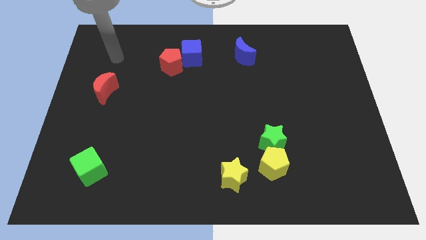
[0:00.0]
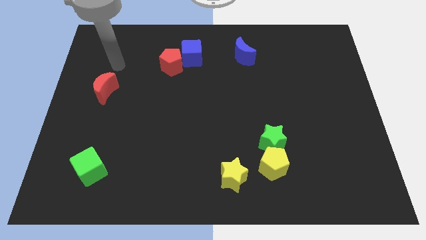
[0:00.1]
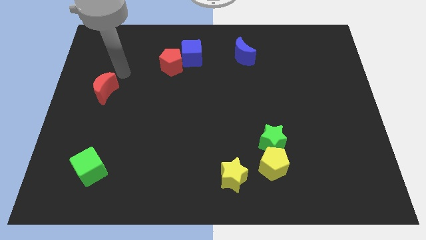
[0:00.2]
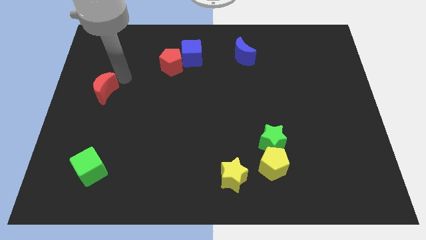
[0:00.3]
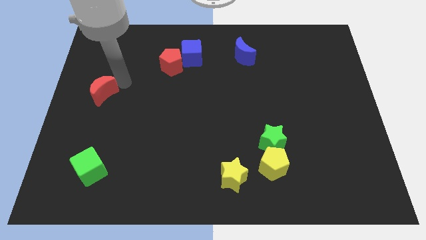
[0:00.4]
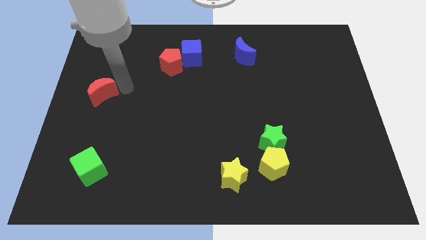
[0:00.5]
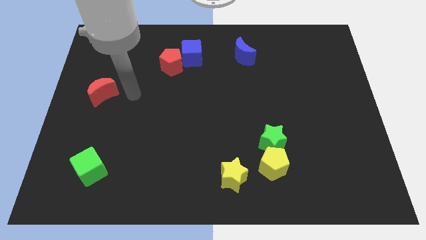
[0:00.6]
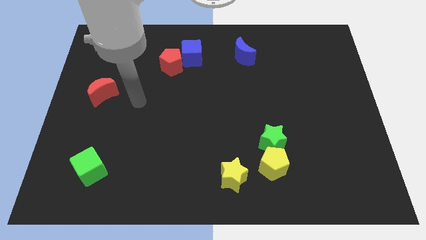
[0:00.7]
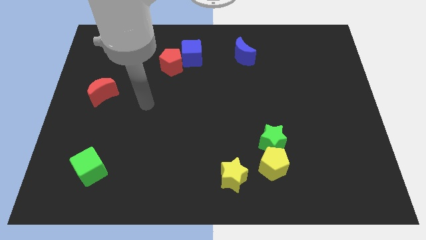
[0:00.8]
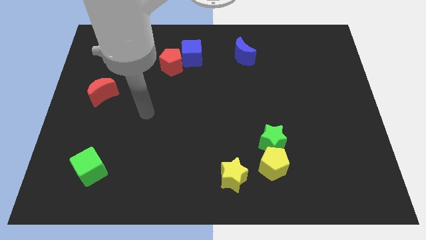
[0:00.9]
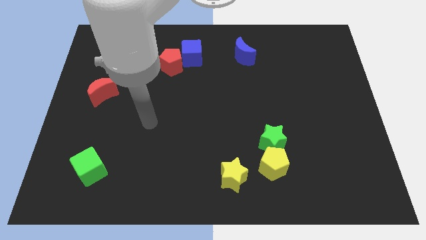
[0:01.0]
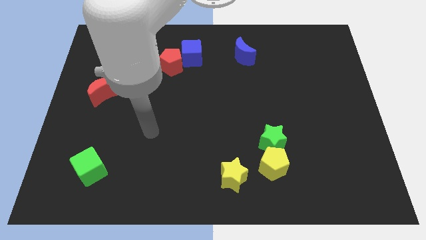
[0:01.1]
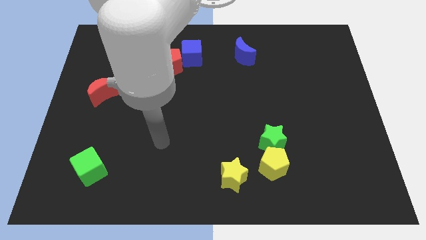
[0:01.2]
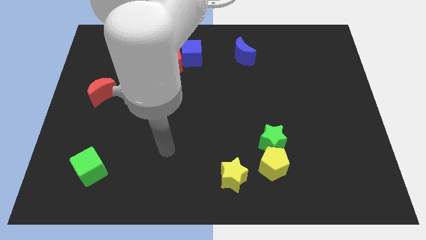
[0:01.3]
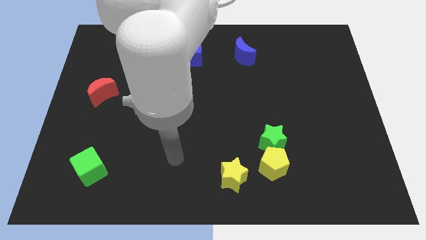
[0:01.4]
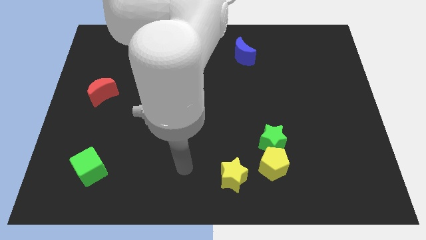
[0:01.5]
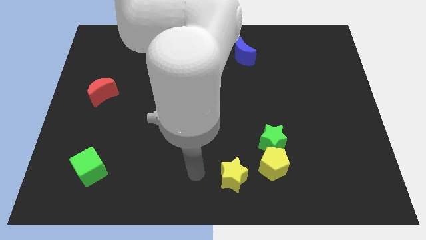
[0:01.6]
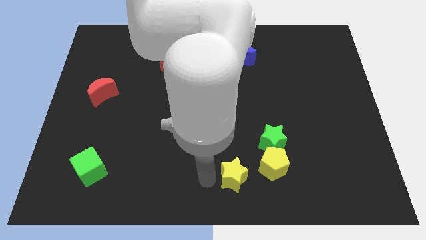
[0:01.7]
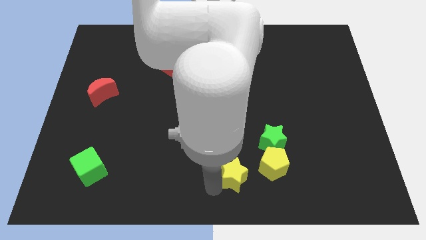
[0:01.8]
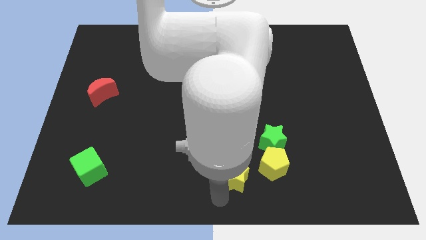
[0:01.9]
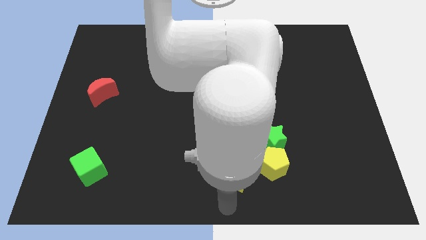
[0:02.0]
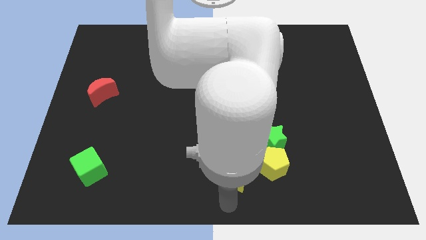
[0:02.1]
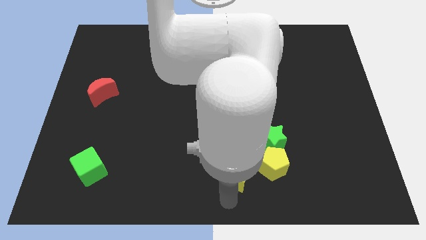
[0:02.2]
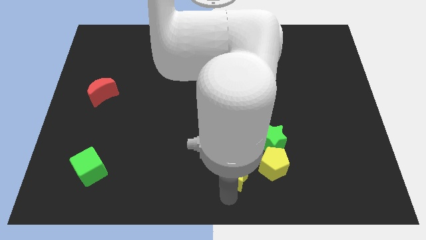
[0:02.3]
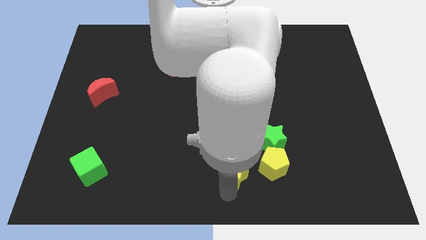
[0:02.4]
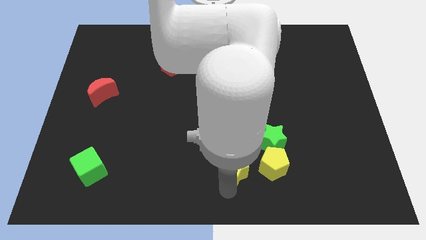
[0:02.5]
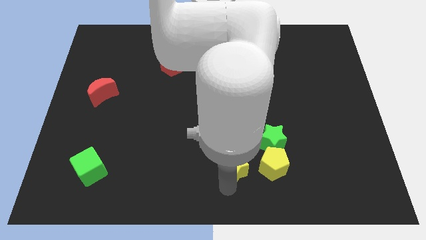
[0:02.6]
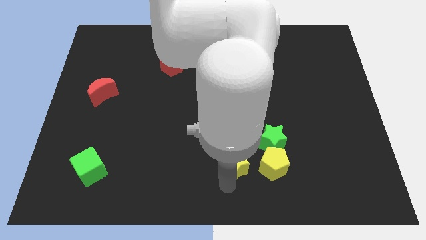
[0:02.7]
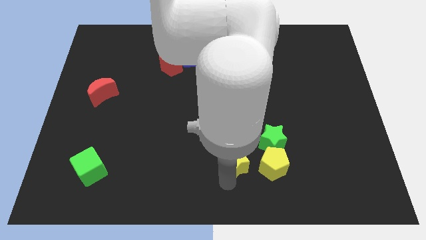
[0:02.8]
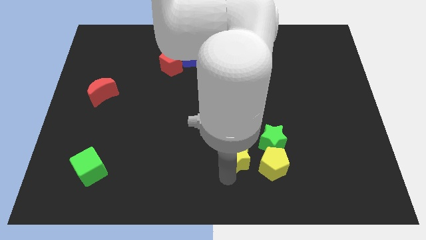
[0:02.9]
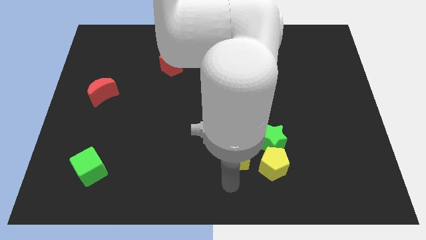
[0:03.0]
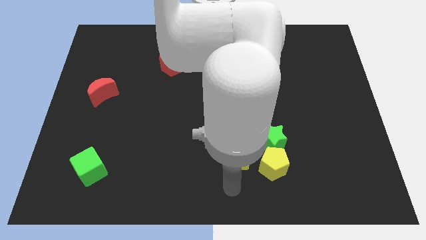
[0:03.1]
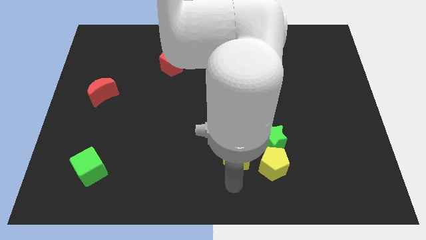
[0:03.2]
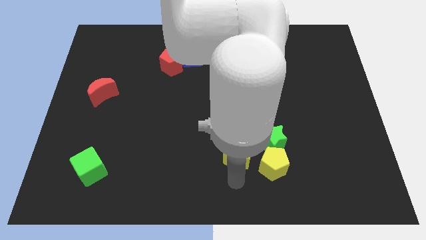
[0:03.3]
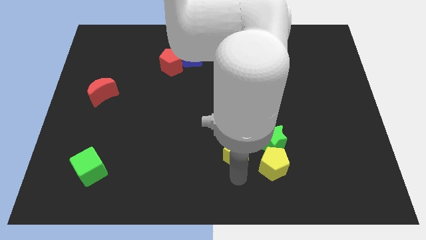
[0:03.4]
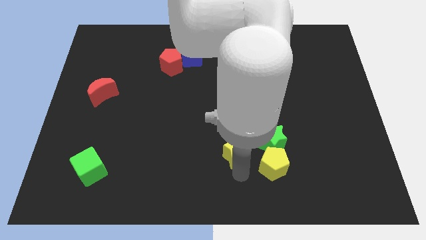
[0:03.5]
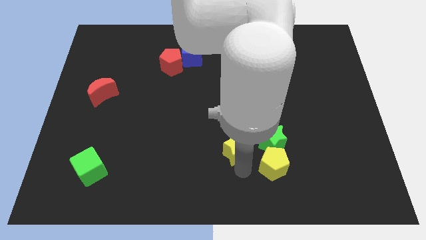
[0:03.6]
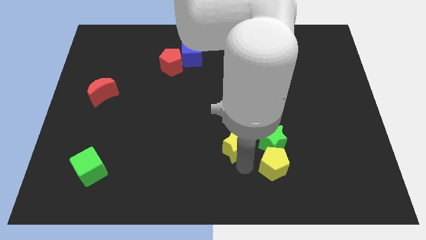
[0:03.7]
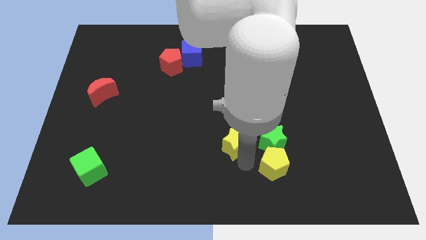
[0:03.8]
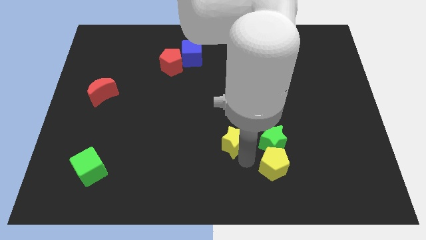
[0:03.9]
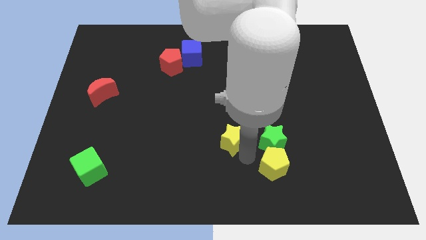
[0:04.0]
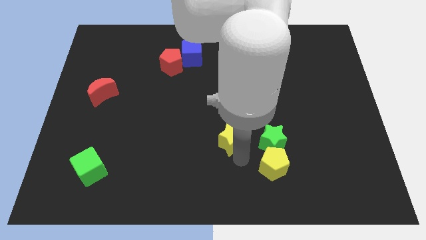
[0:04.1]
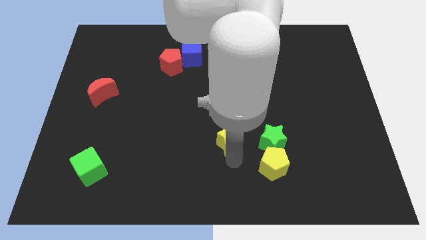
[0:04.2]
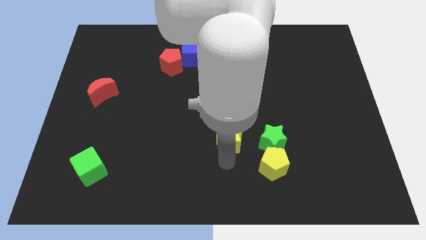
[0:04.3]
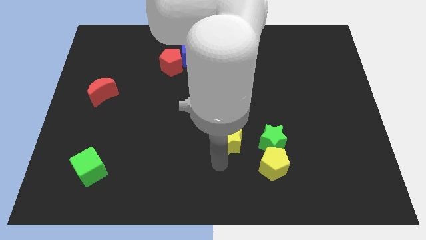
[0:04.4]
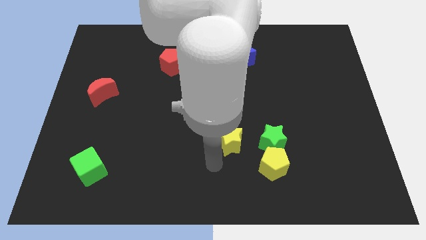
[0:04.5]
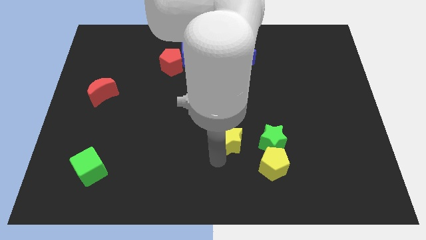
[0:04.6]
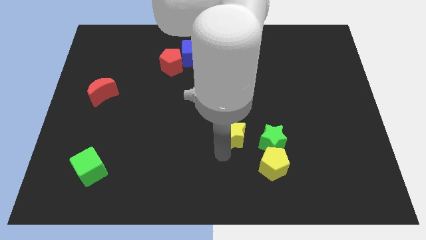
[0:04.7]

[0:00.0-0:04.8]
put the yellow star to the top left side of the green star

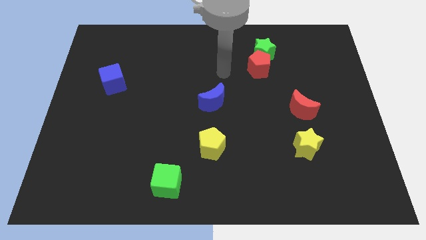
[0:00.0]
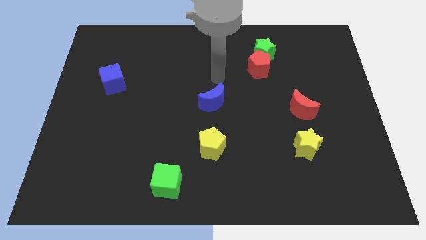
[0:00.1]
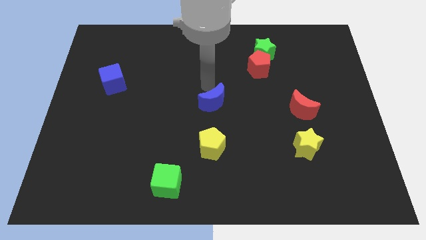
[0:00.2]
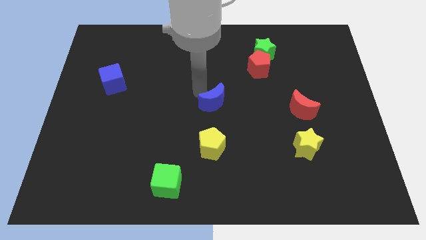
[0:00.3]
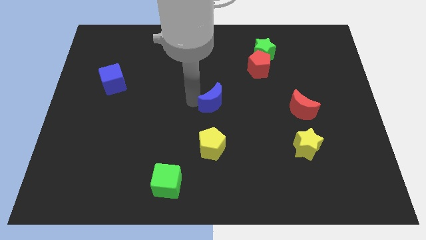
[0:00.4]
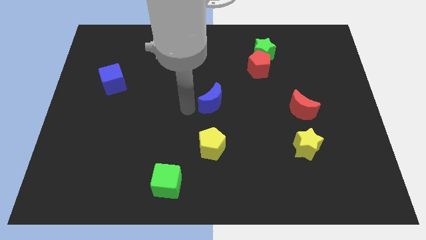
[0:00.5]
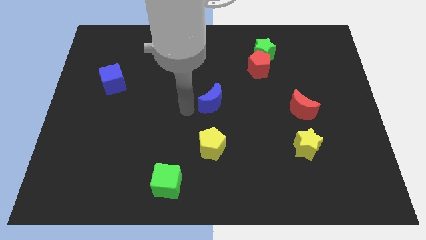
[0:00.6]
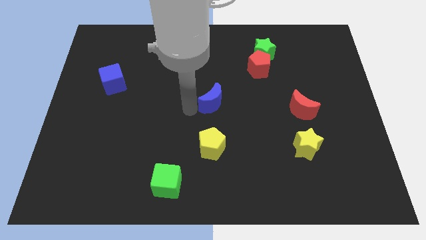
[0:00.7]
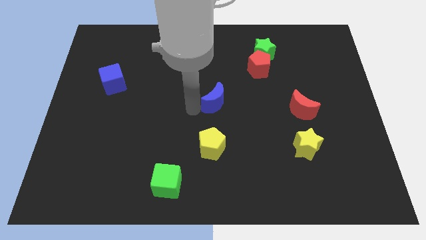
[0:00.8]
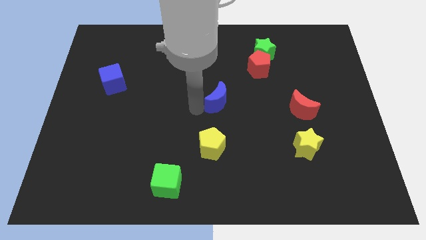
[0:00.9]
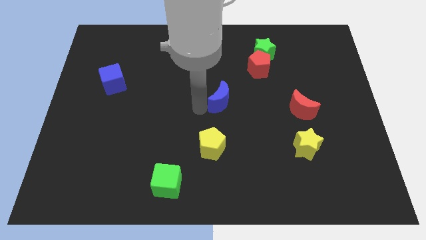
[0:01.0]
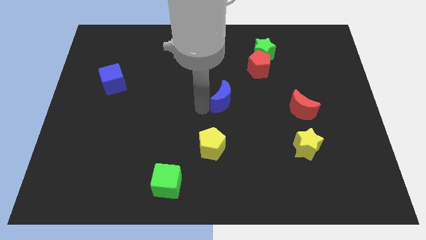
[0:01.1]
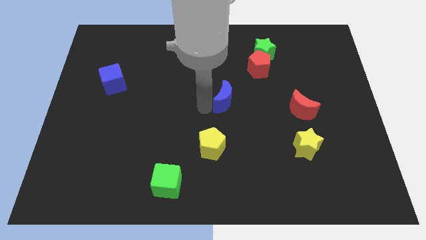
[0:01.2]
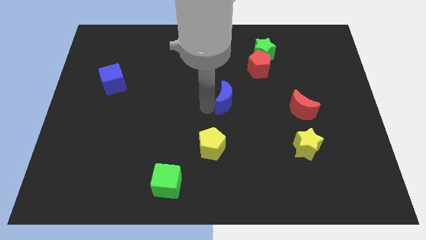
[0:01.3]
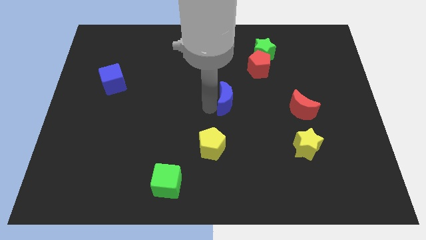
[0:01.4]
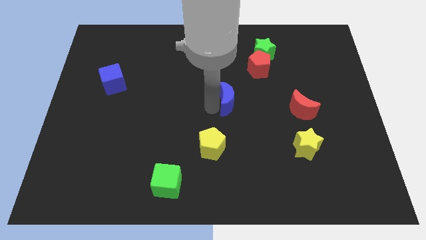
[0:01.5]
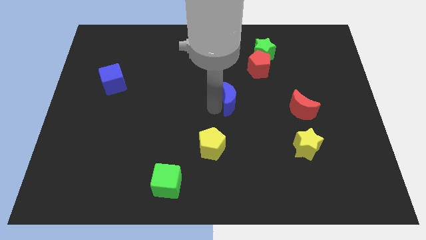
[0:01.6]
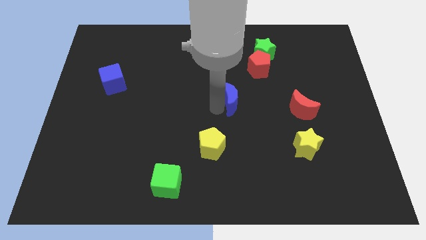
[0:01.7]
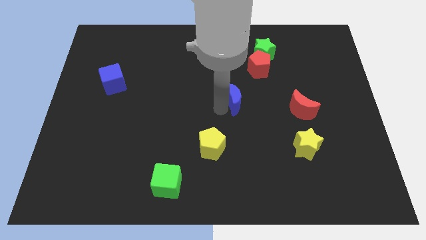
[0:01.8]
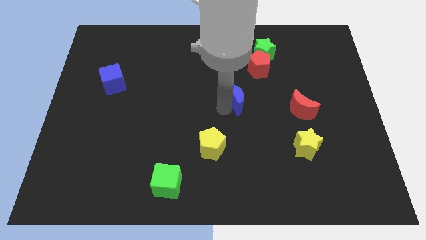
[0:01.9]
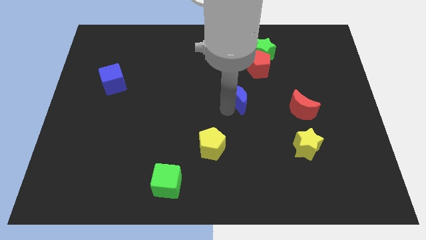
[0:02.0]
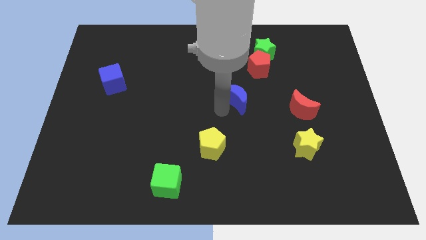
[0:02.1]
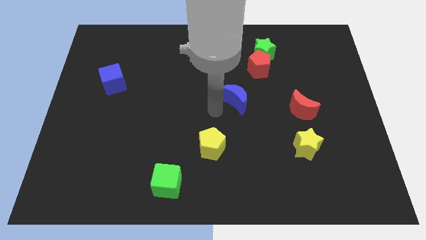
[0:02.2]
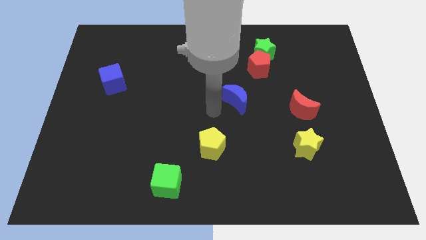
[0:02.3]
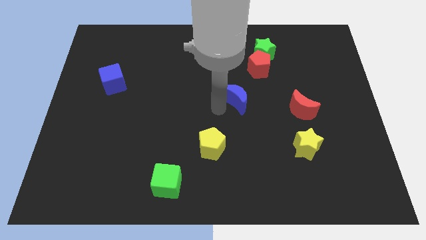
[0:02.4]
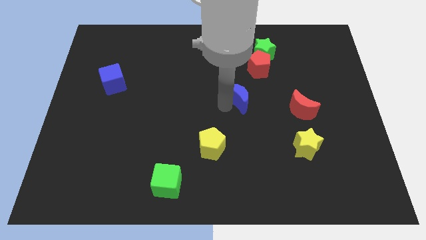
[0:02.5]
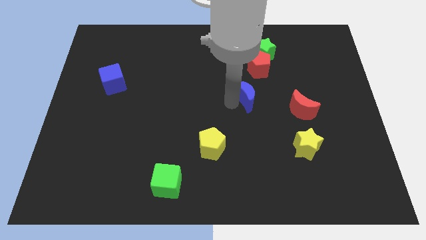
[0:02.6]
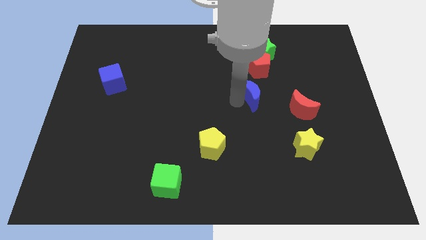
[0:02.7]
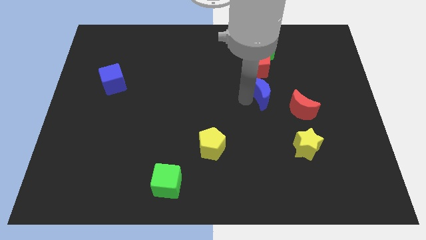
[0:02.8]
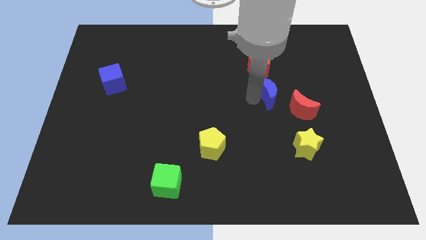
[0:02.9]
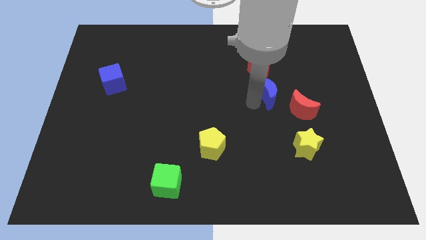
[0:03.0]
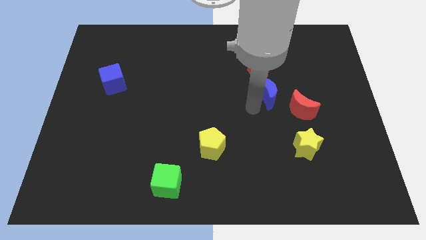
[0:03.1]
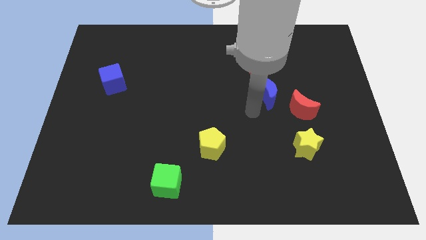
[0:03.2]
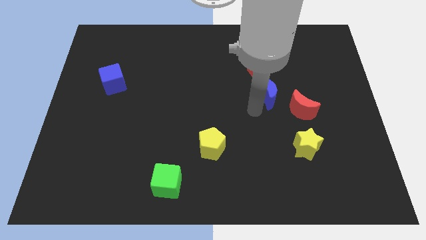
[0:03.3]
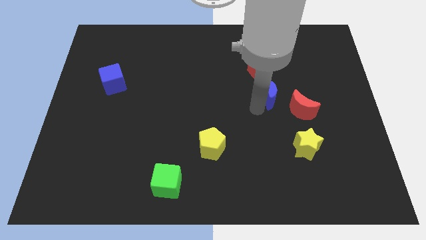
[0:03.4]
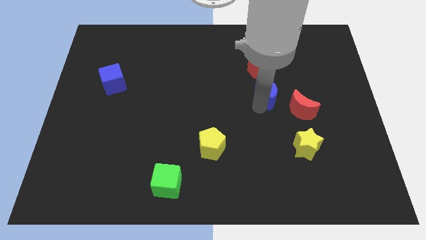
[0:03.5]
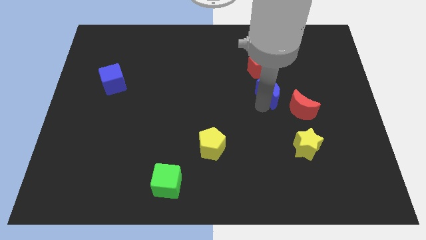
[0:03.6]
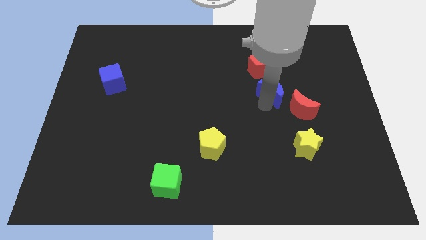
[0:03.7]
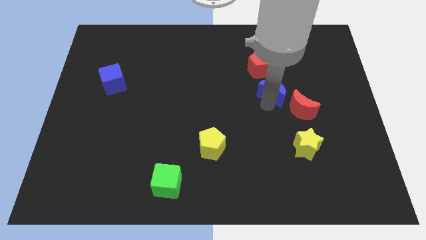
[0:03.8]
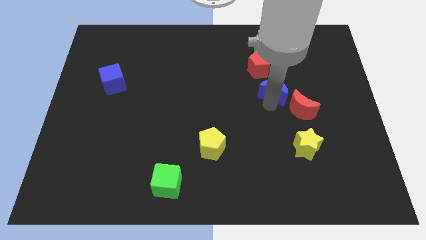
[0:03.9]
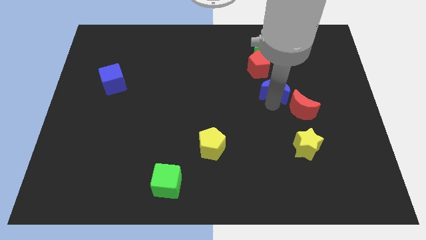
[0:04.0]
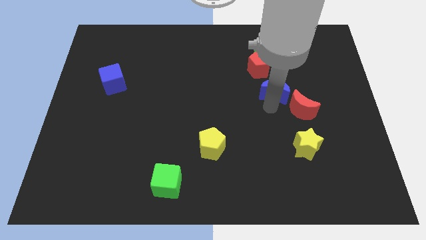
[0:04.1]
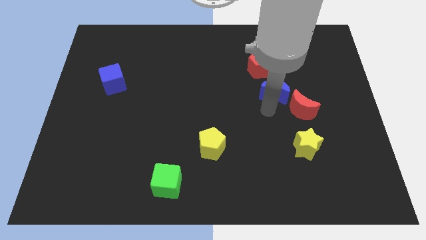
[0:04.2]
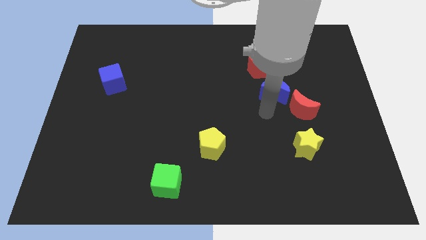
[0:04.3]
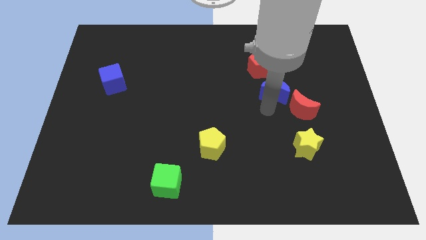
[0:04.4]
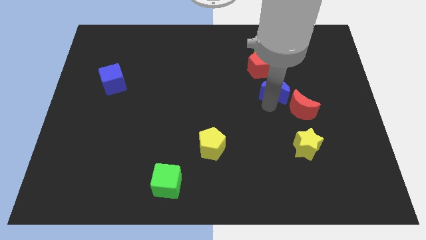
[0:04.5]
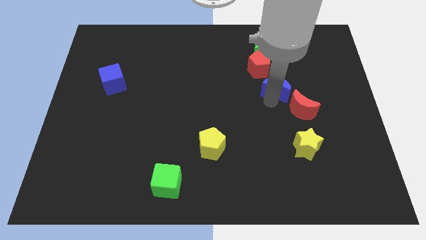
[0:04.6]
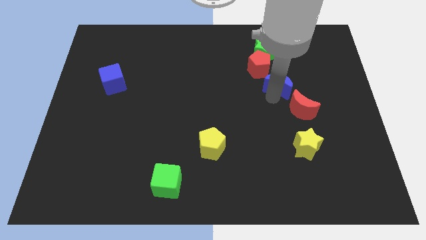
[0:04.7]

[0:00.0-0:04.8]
move the blue moon above the red moon
